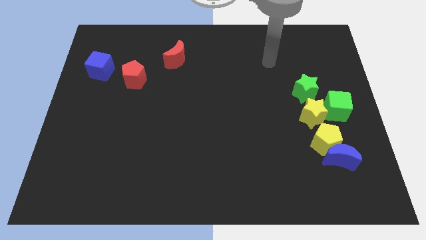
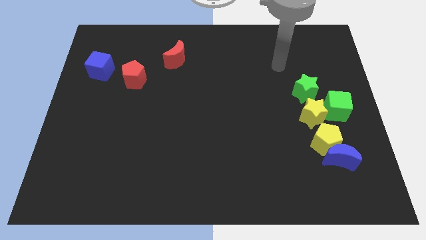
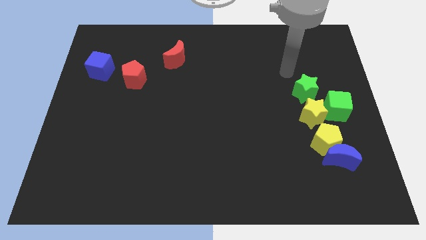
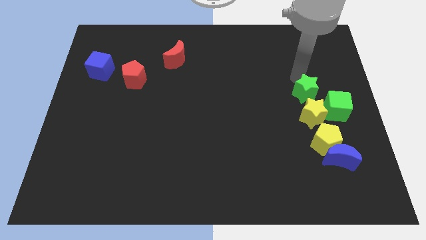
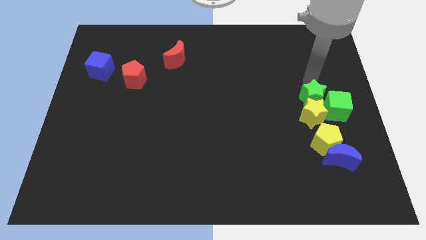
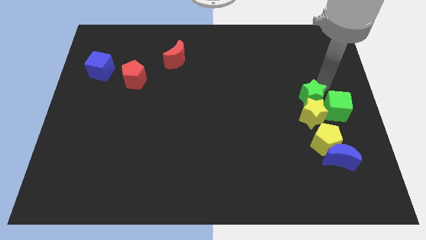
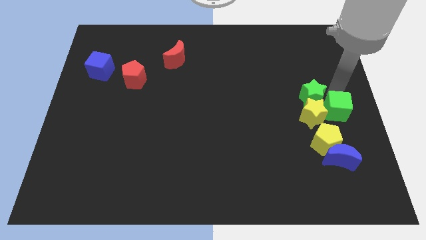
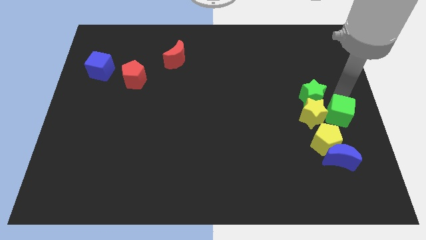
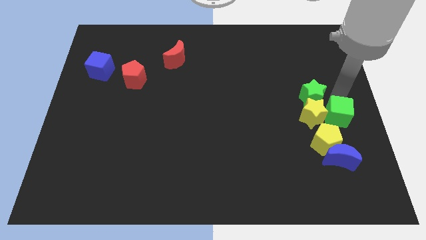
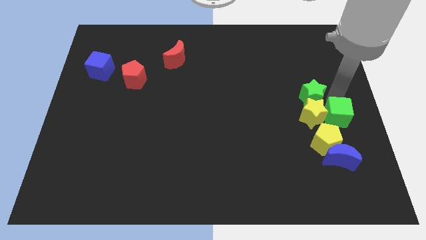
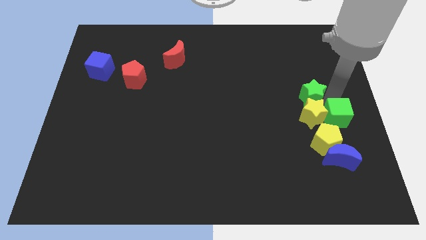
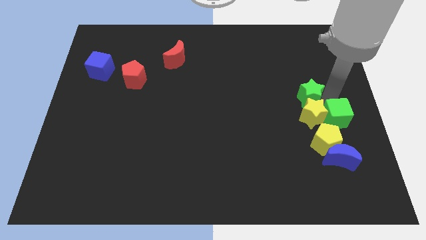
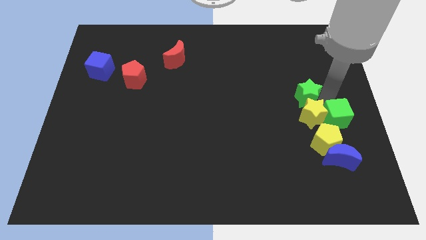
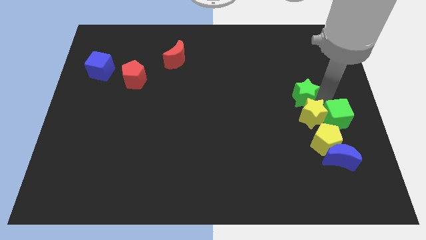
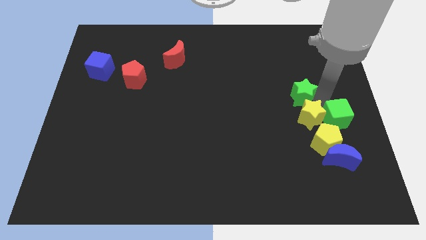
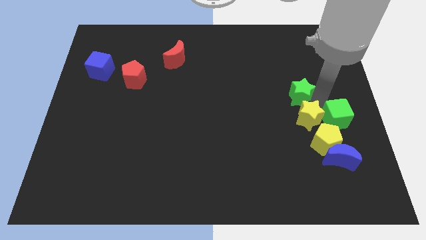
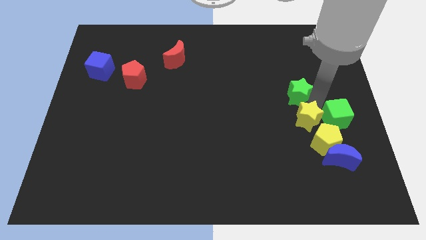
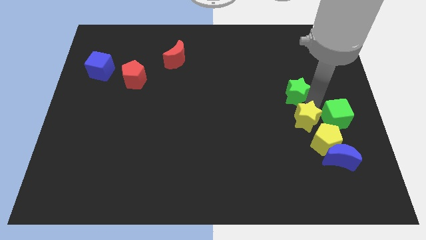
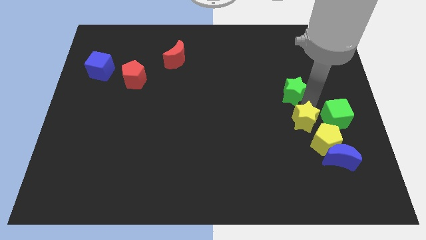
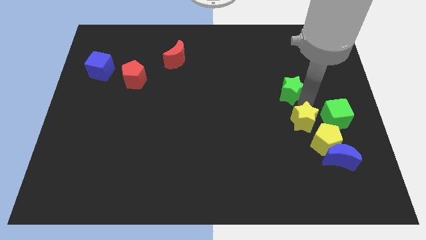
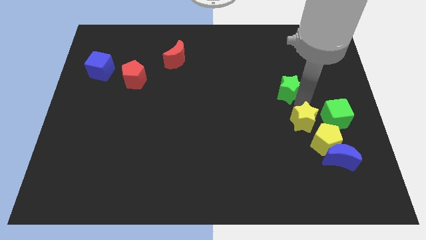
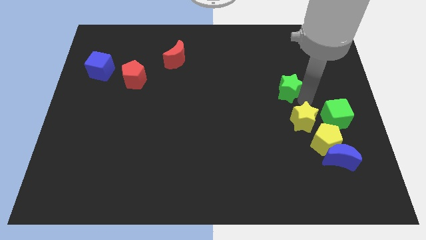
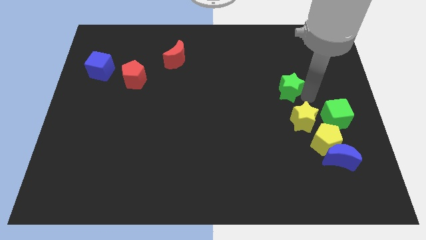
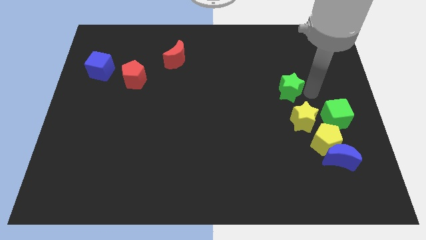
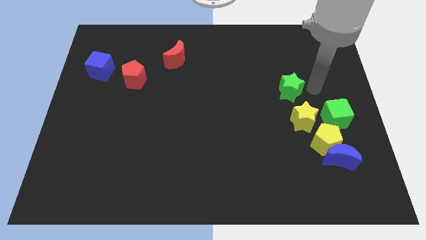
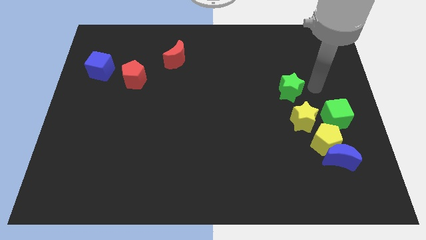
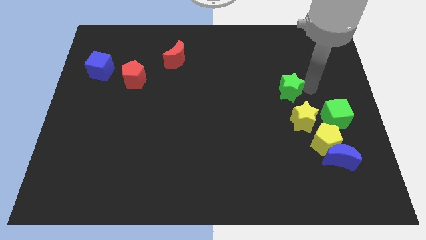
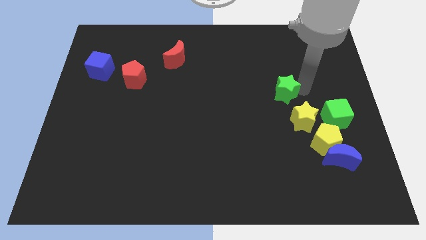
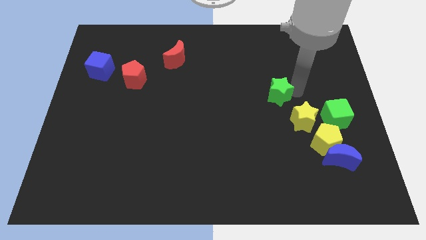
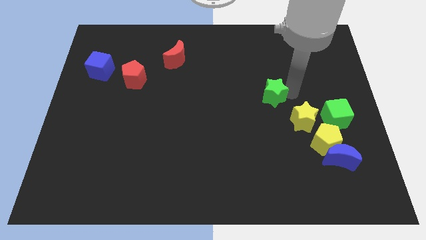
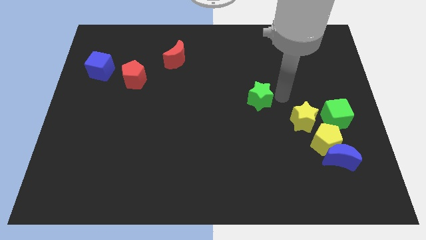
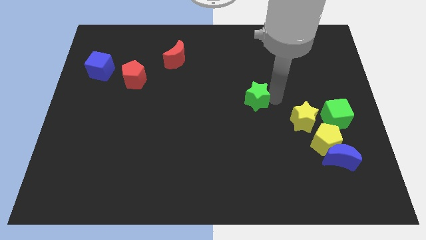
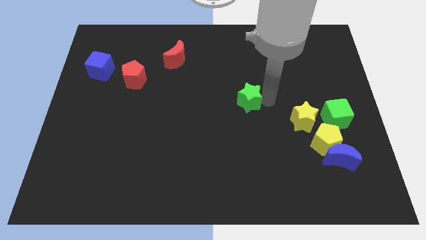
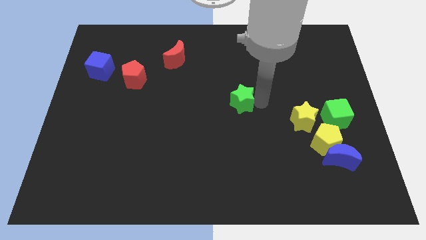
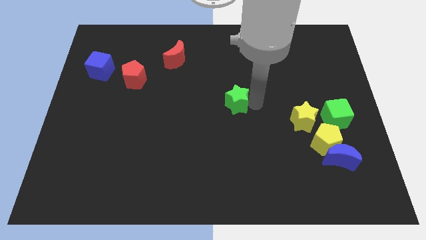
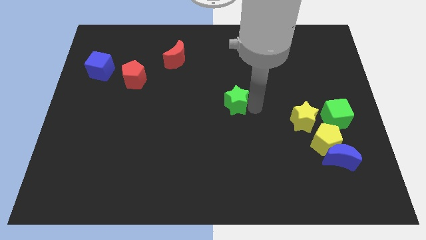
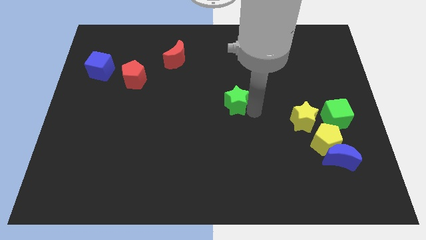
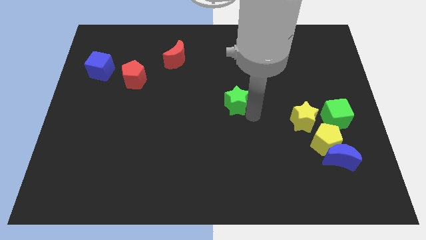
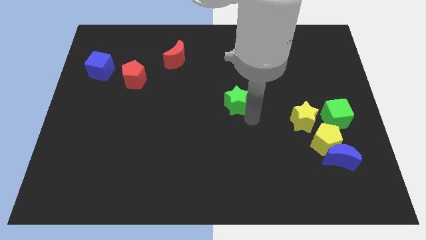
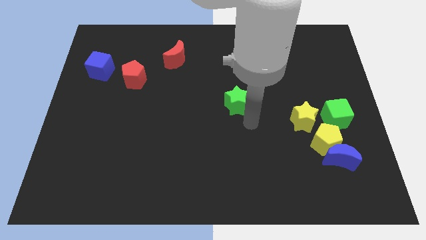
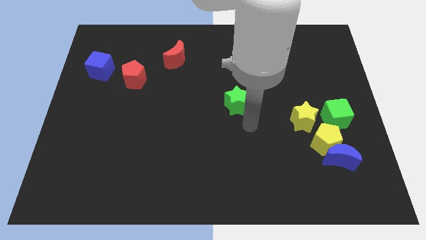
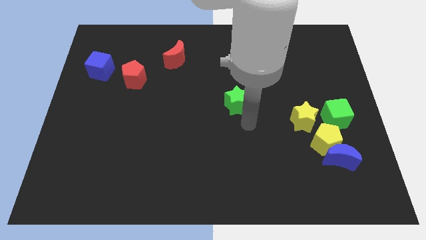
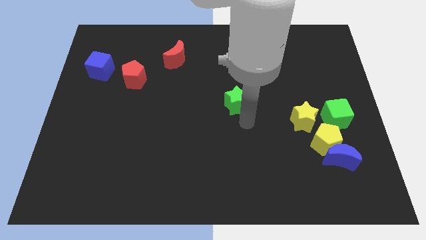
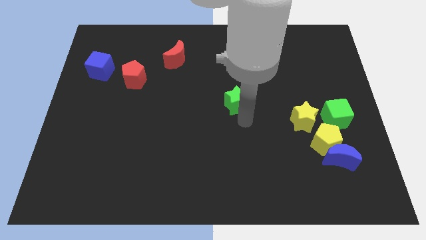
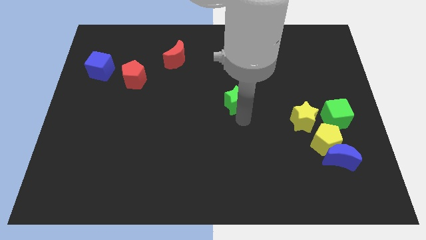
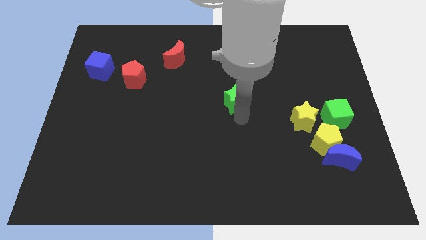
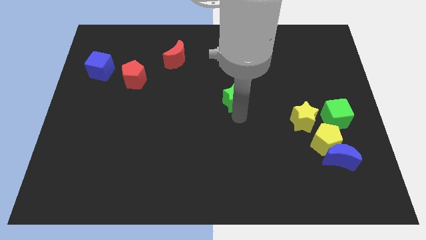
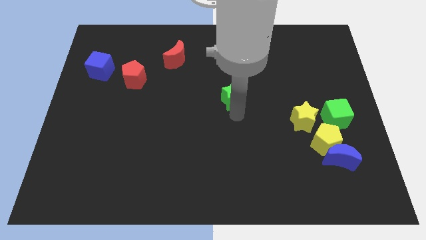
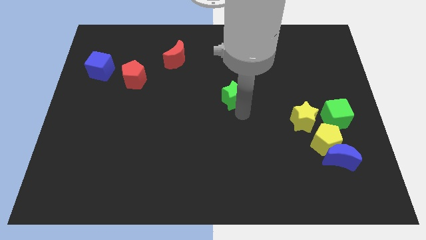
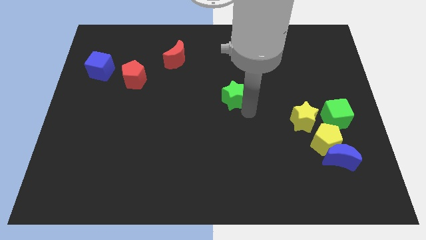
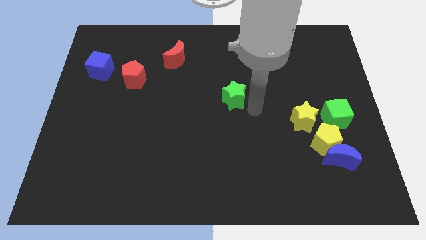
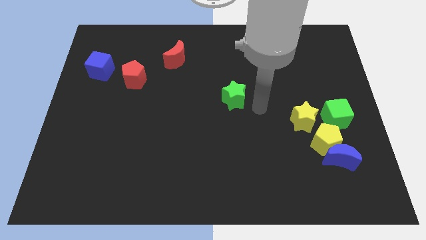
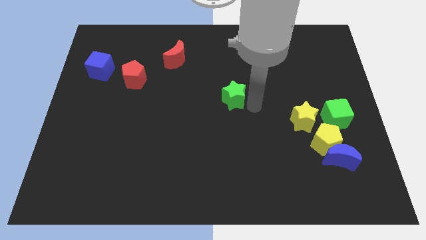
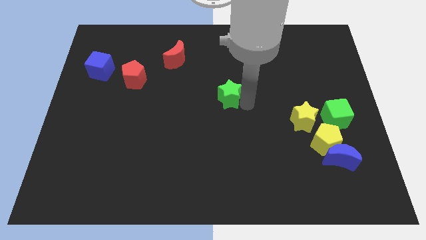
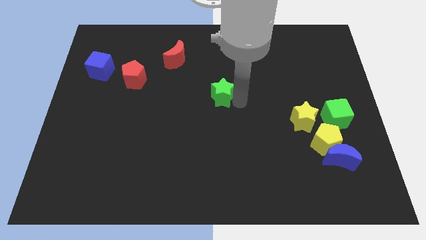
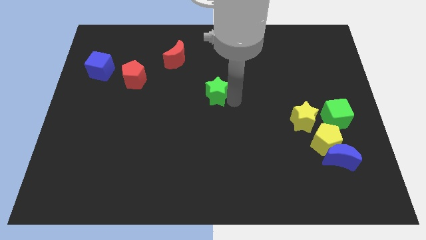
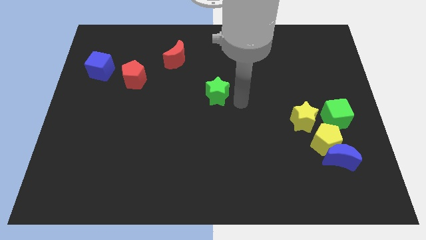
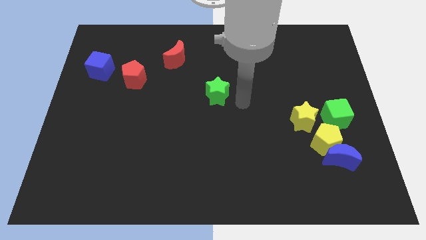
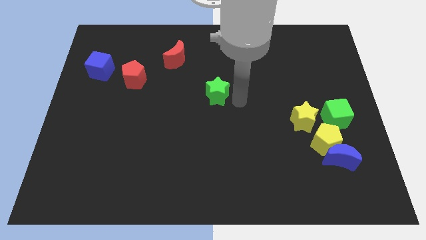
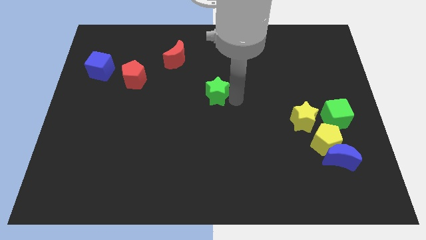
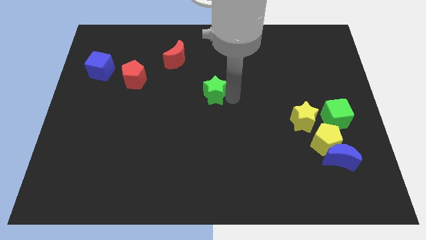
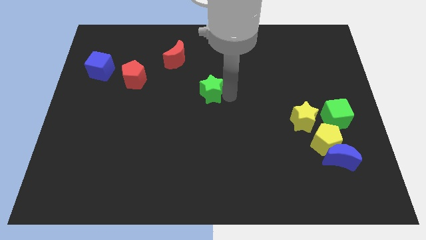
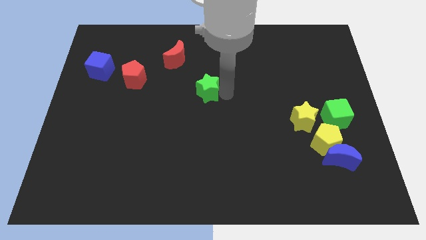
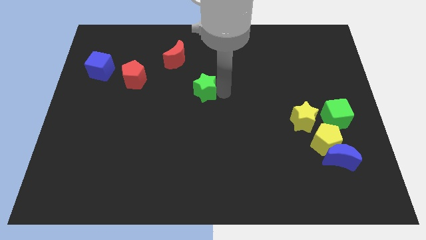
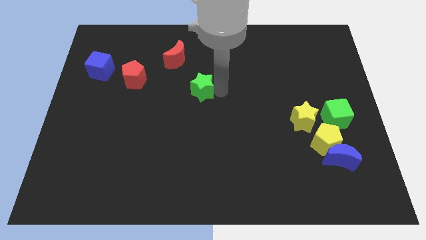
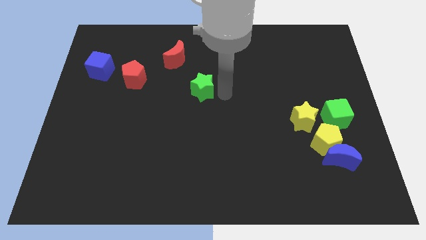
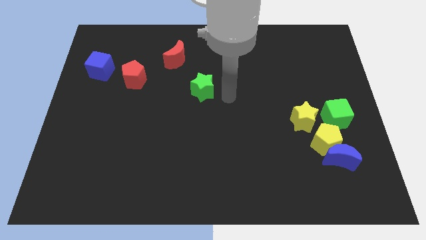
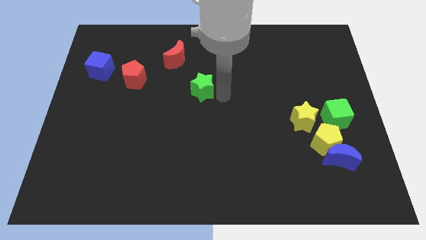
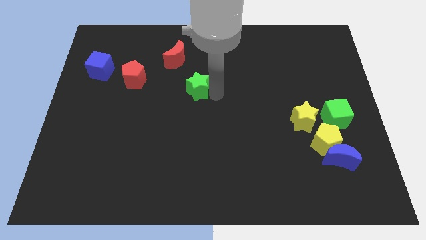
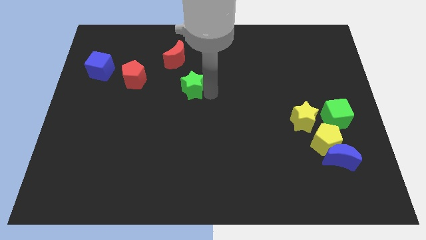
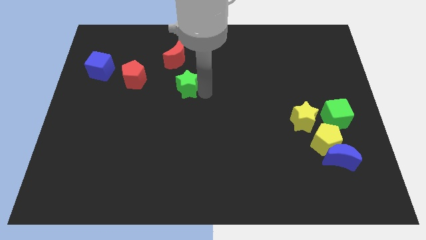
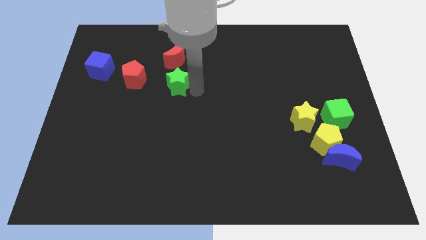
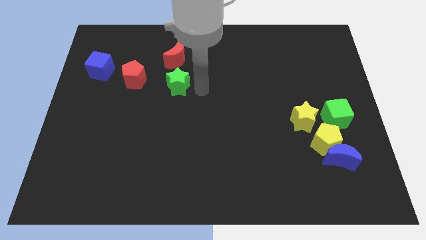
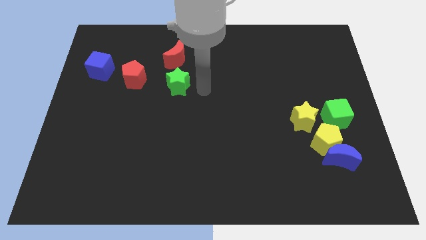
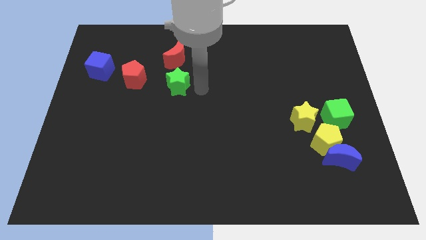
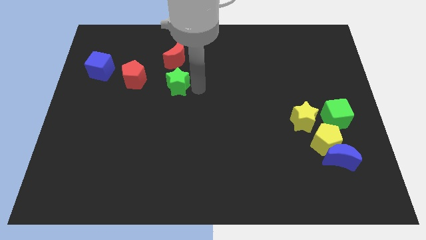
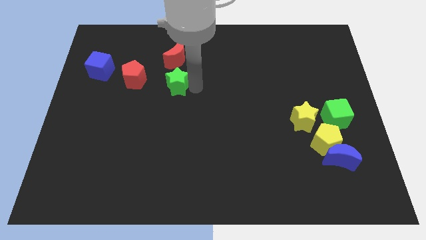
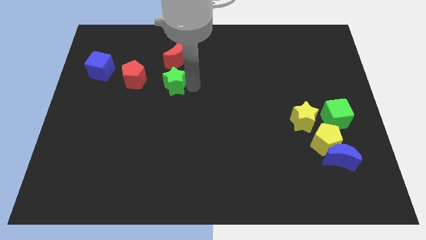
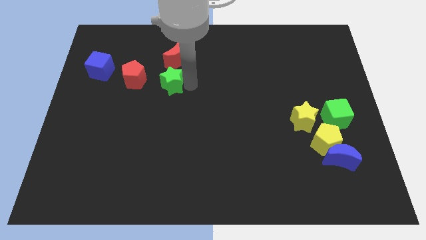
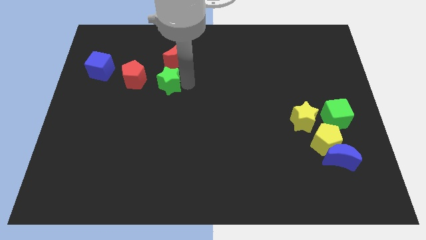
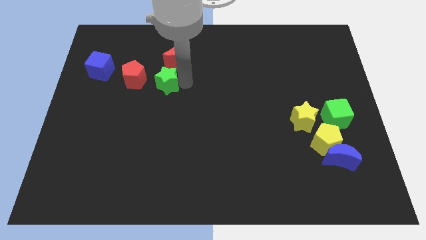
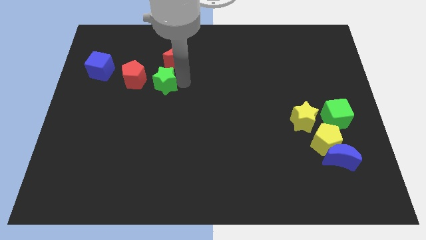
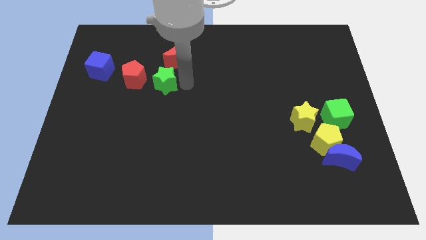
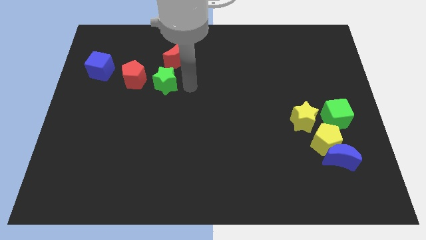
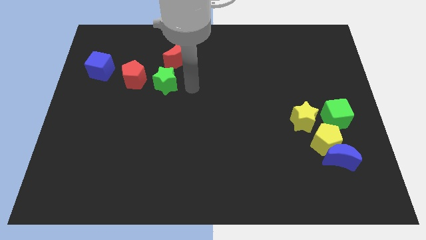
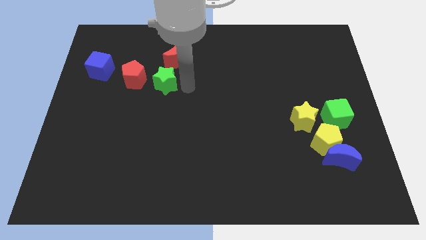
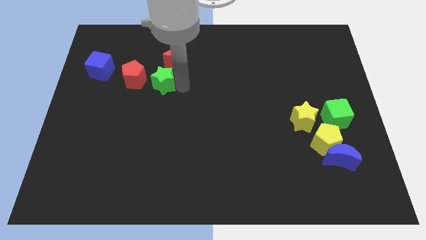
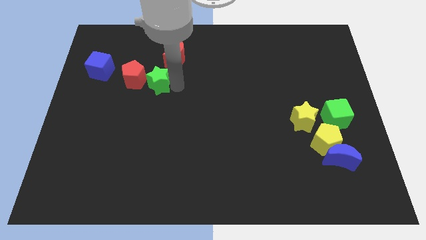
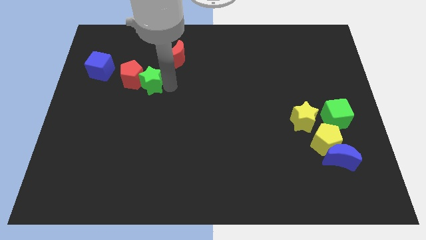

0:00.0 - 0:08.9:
put the green star next to the red pentagon
